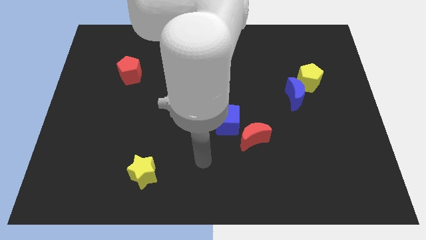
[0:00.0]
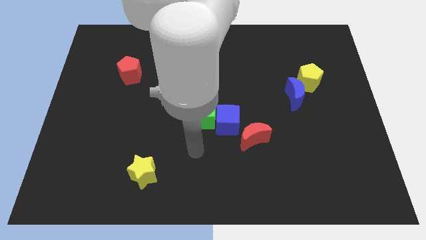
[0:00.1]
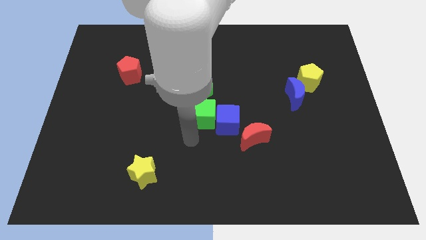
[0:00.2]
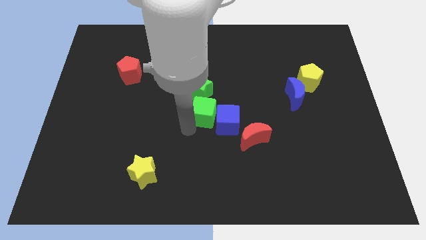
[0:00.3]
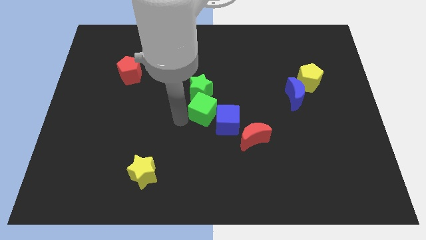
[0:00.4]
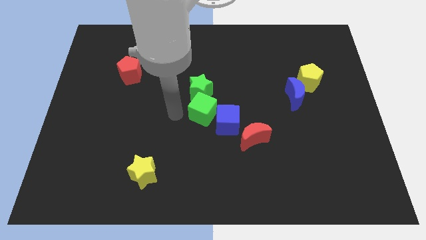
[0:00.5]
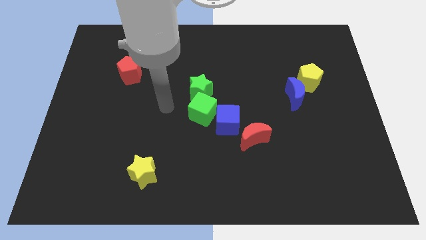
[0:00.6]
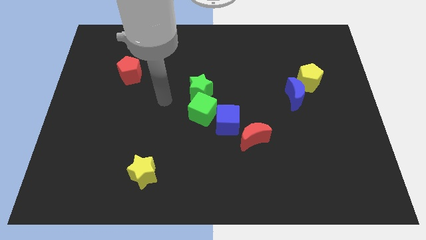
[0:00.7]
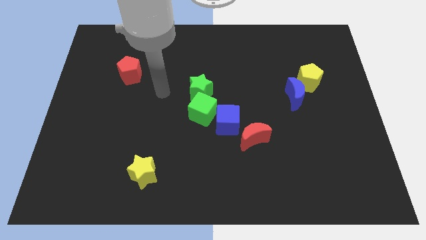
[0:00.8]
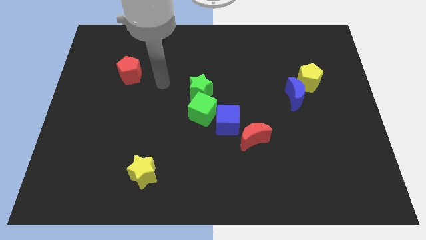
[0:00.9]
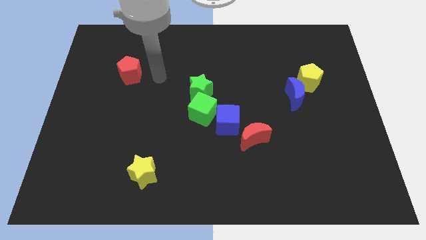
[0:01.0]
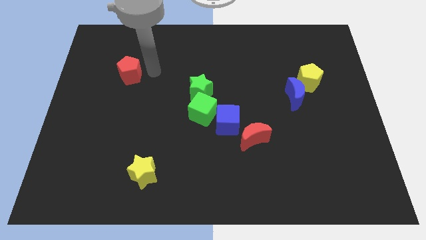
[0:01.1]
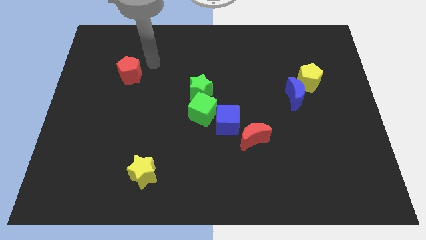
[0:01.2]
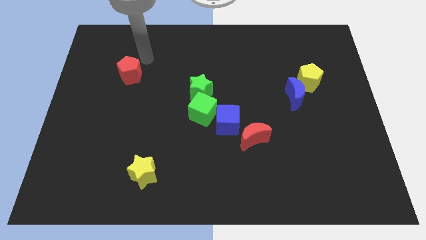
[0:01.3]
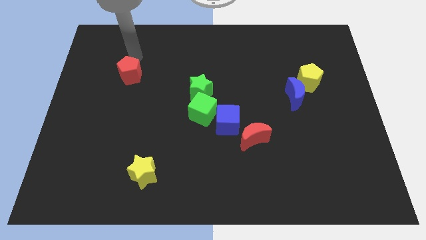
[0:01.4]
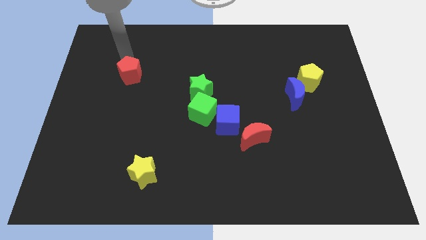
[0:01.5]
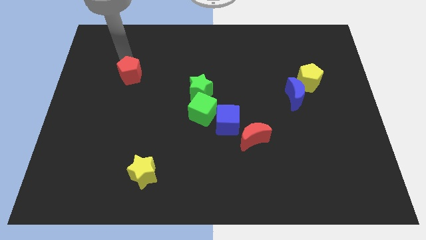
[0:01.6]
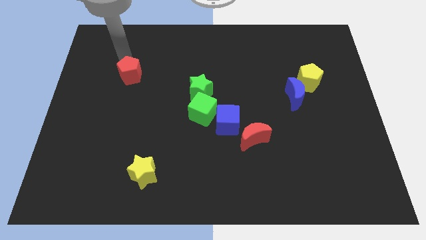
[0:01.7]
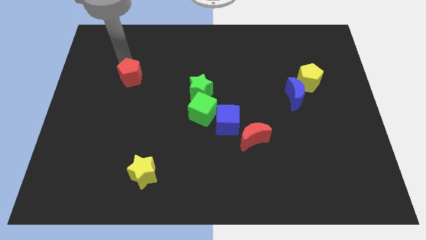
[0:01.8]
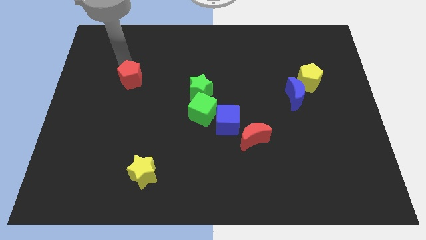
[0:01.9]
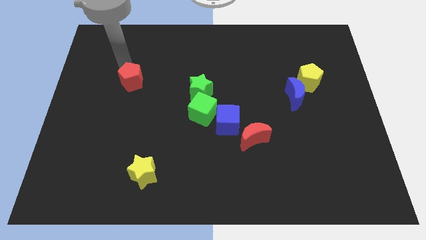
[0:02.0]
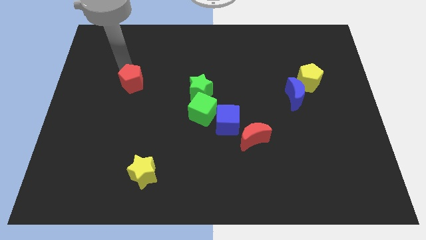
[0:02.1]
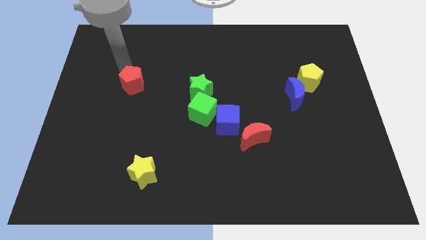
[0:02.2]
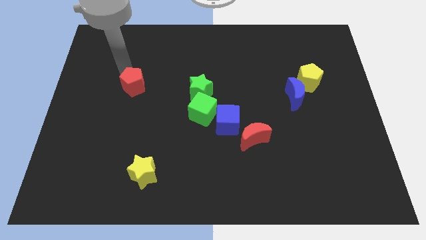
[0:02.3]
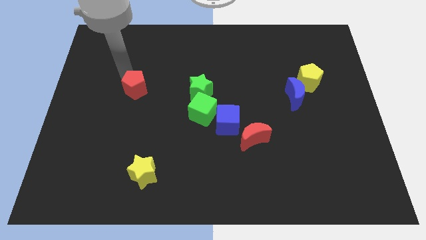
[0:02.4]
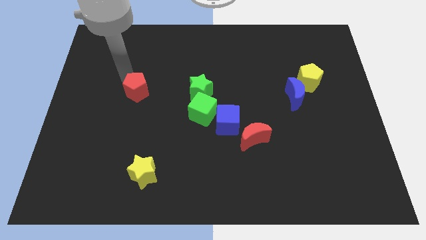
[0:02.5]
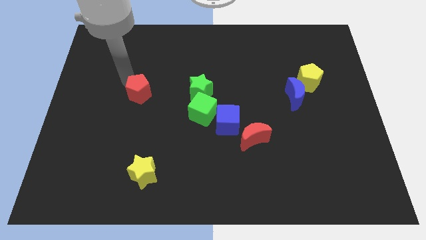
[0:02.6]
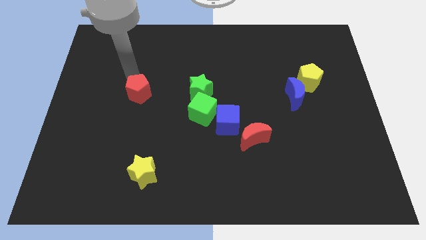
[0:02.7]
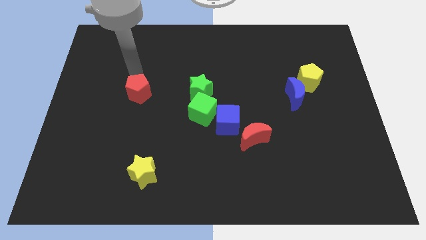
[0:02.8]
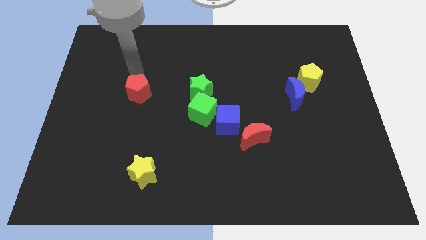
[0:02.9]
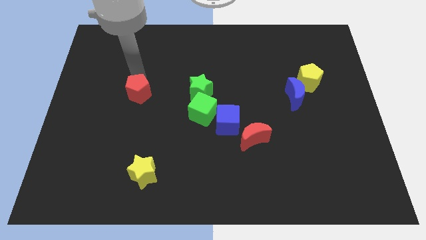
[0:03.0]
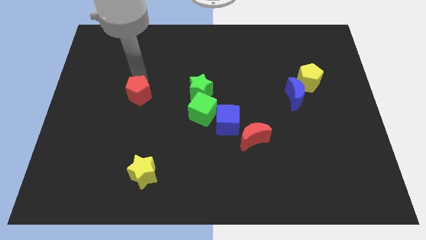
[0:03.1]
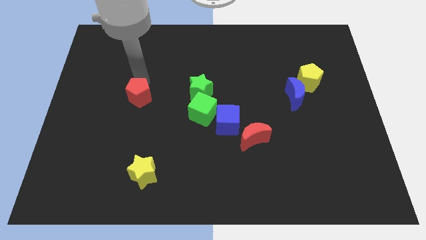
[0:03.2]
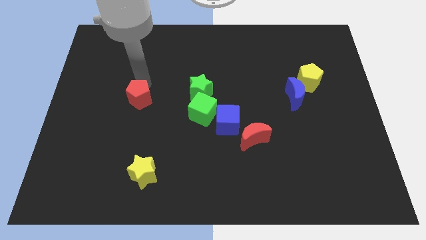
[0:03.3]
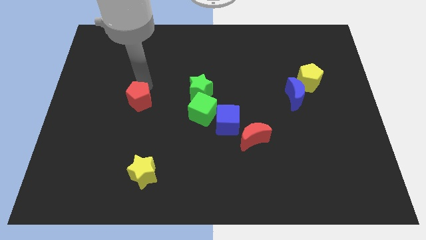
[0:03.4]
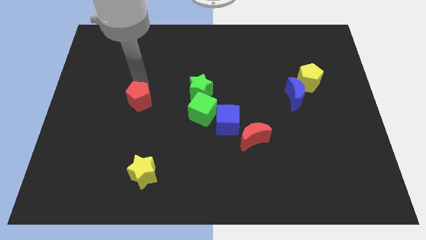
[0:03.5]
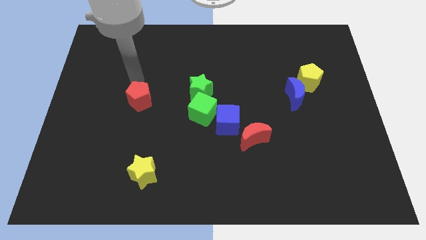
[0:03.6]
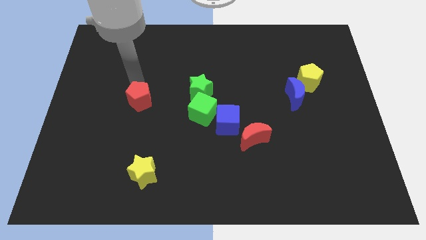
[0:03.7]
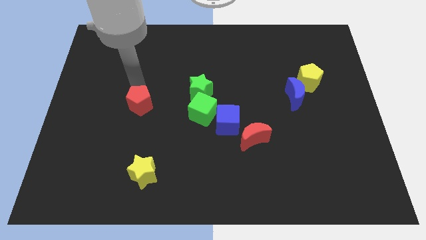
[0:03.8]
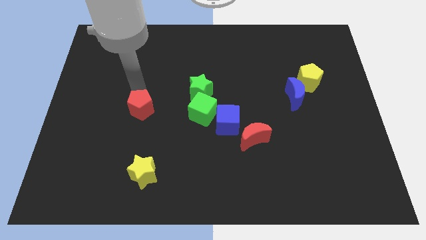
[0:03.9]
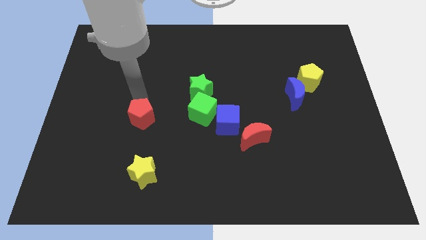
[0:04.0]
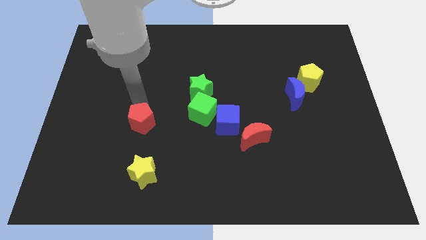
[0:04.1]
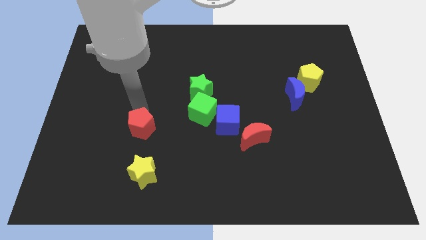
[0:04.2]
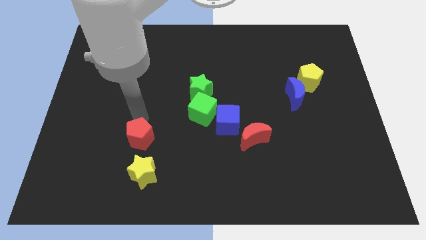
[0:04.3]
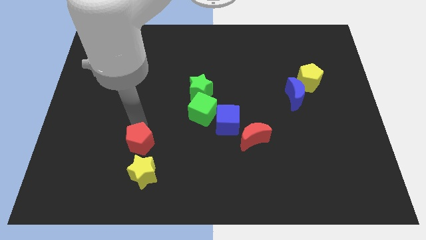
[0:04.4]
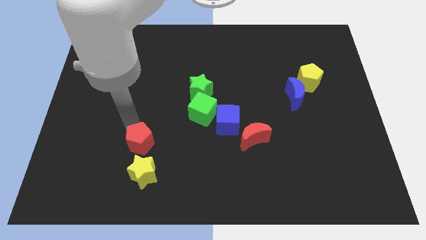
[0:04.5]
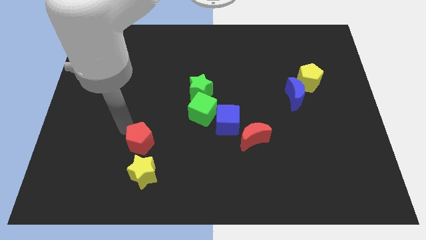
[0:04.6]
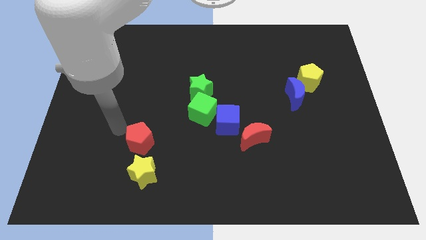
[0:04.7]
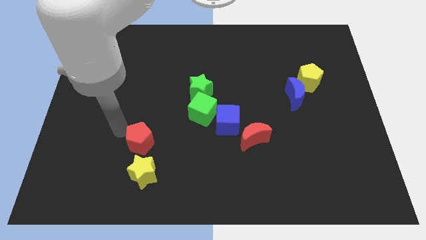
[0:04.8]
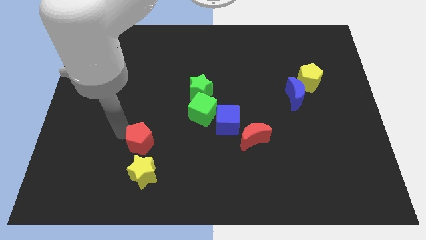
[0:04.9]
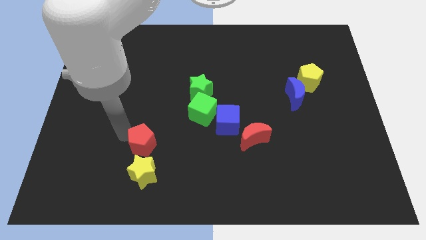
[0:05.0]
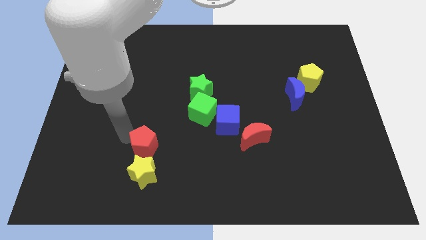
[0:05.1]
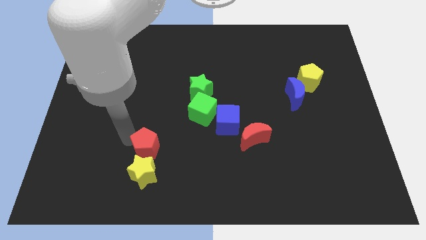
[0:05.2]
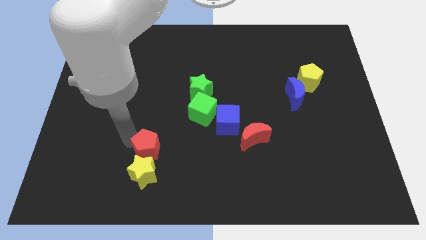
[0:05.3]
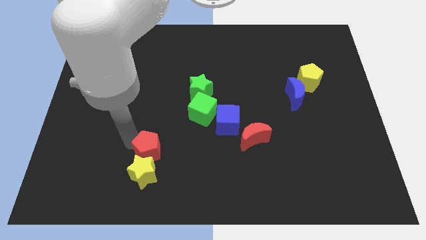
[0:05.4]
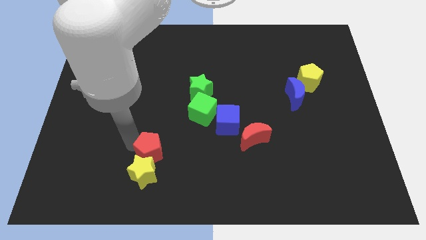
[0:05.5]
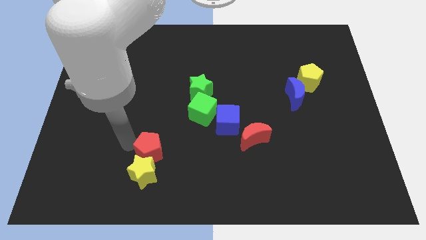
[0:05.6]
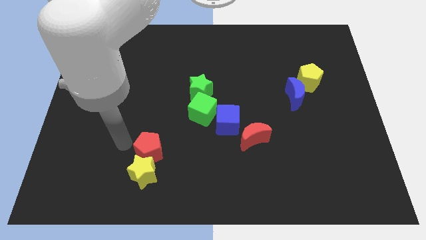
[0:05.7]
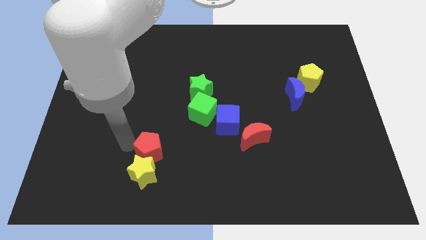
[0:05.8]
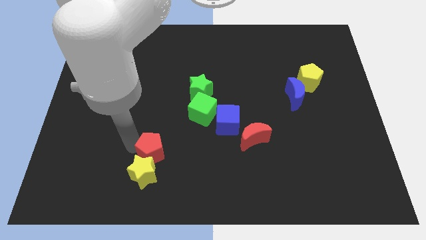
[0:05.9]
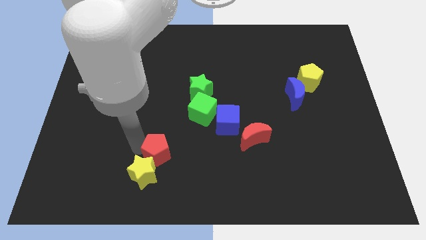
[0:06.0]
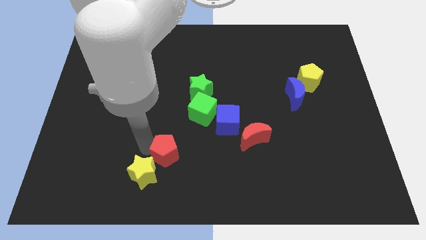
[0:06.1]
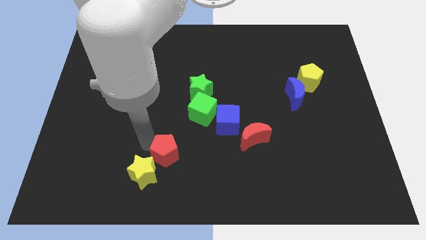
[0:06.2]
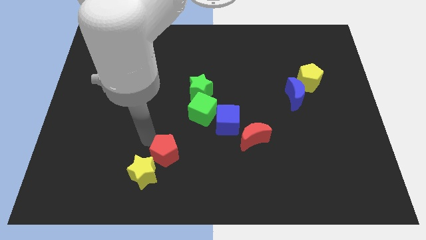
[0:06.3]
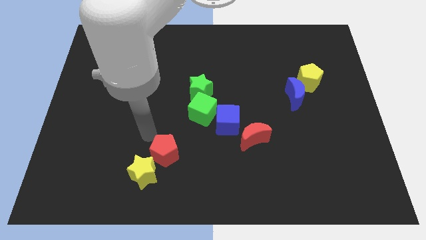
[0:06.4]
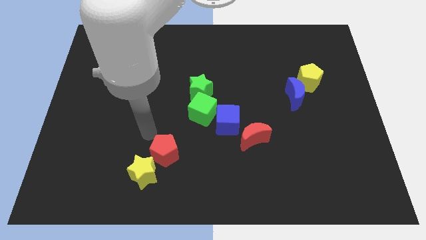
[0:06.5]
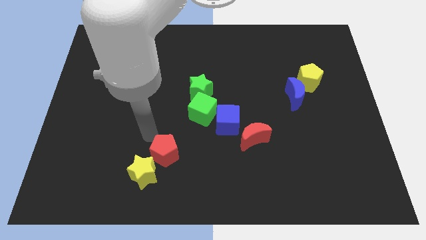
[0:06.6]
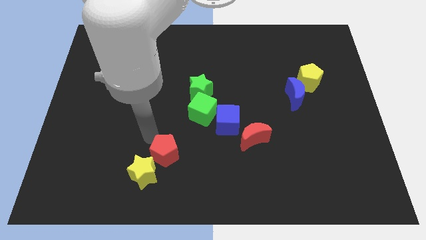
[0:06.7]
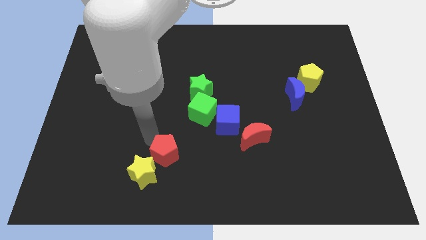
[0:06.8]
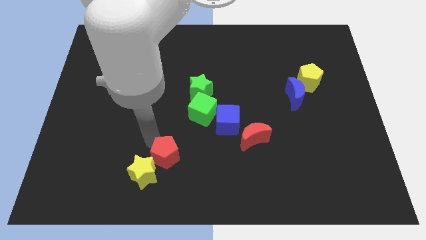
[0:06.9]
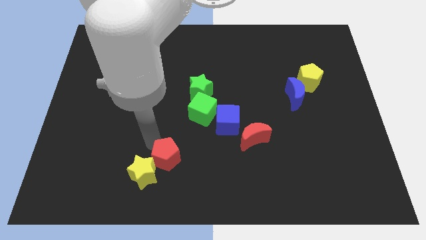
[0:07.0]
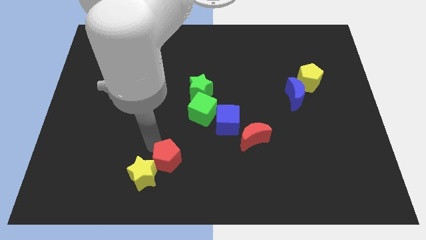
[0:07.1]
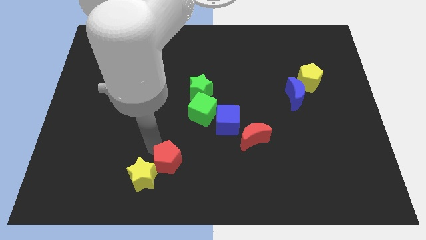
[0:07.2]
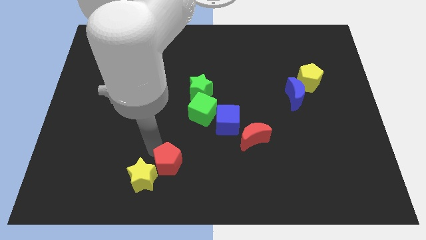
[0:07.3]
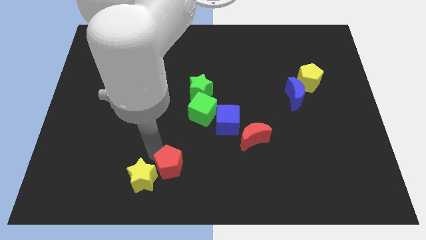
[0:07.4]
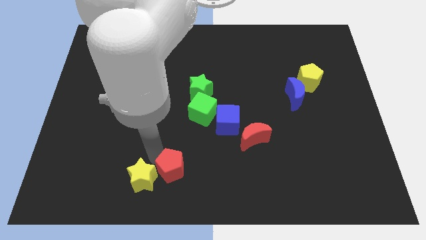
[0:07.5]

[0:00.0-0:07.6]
put the red pentagon to the bottom side

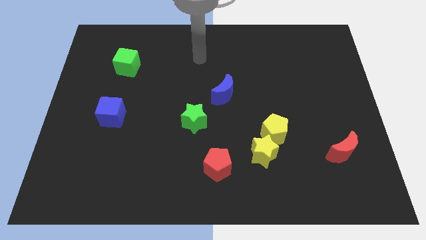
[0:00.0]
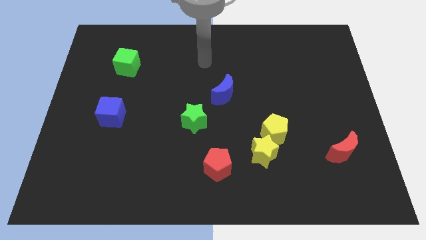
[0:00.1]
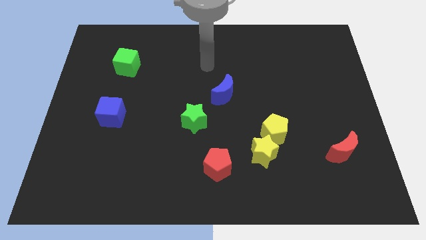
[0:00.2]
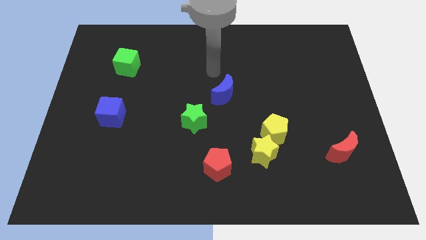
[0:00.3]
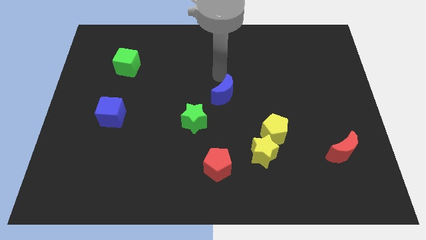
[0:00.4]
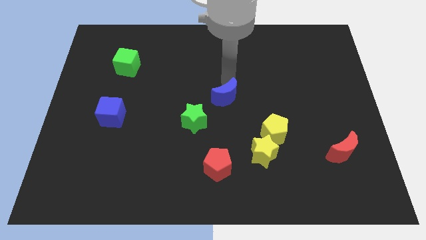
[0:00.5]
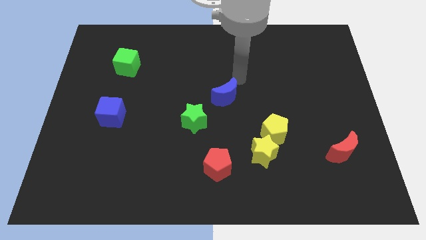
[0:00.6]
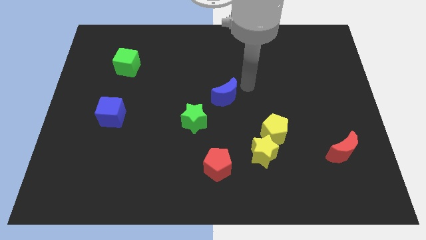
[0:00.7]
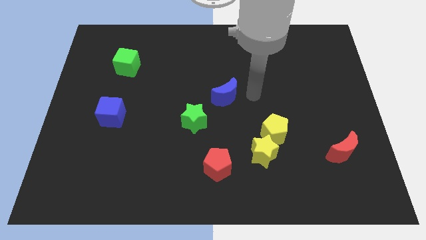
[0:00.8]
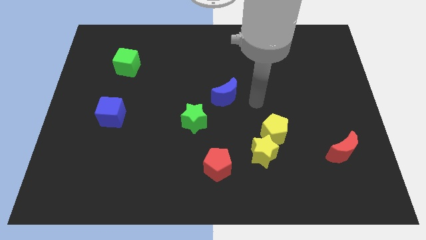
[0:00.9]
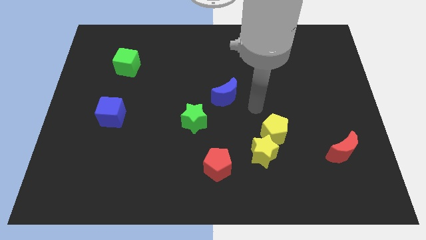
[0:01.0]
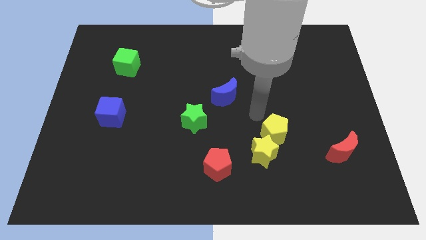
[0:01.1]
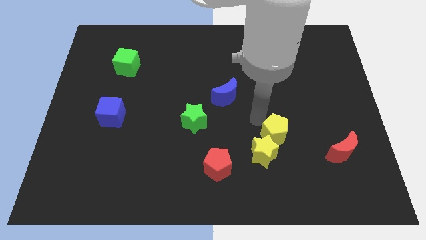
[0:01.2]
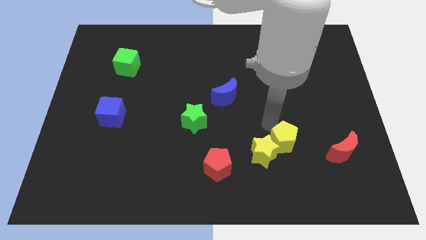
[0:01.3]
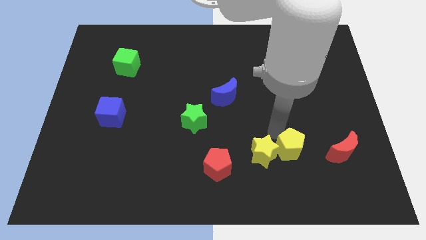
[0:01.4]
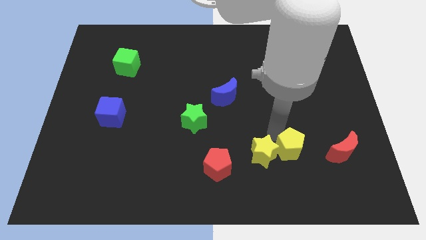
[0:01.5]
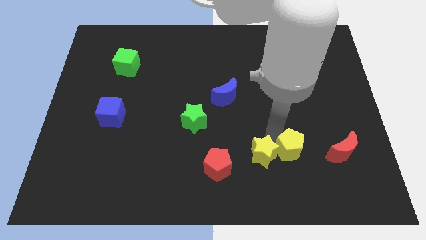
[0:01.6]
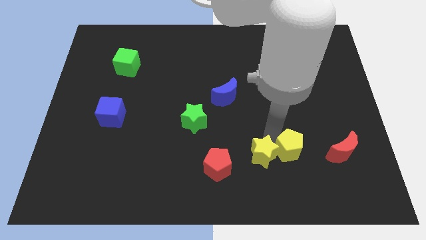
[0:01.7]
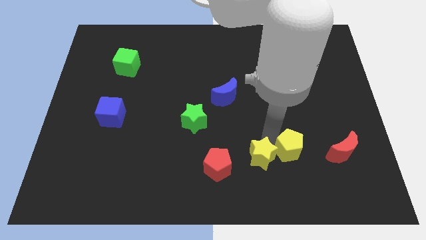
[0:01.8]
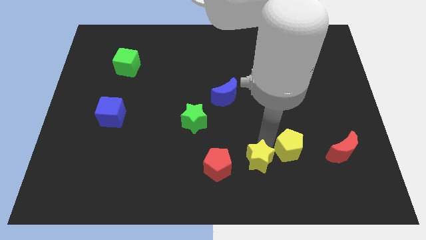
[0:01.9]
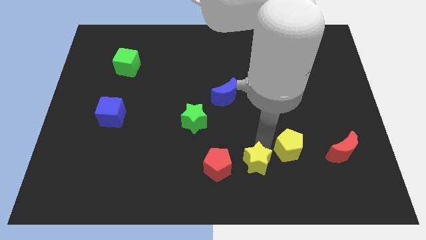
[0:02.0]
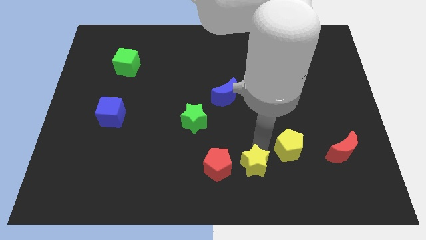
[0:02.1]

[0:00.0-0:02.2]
slide the yellow star to the bottom side
